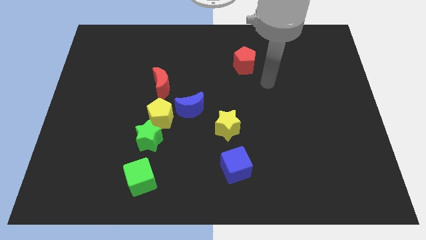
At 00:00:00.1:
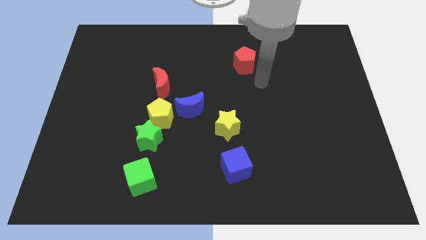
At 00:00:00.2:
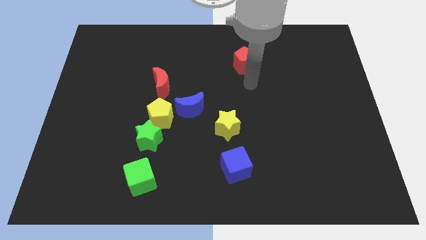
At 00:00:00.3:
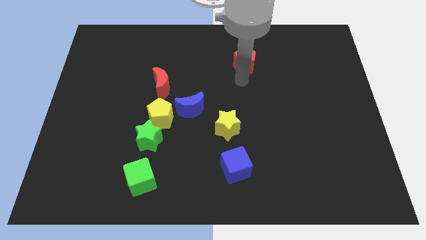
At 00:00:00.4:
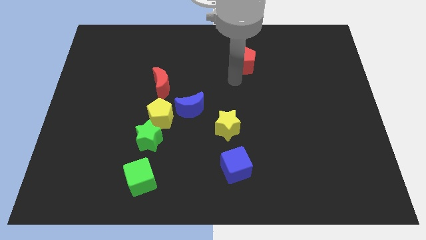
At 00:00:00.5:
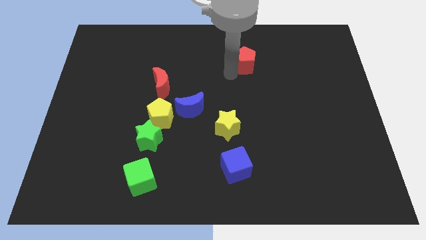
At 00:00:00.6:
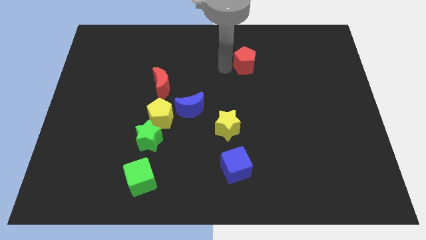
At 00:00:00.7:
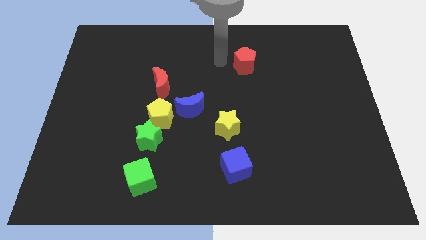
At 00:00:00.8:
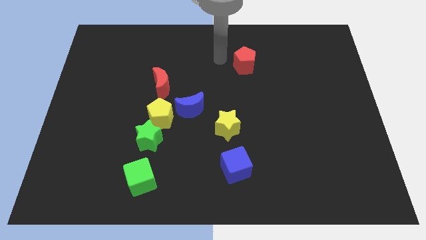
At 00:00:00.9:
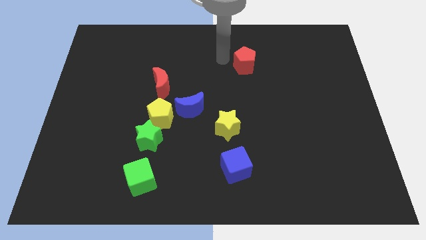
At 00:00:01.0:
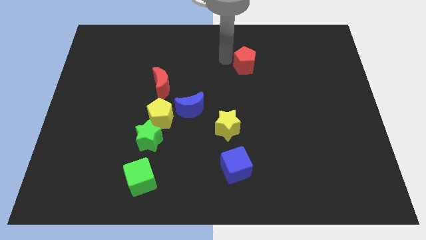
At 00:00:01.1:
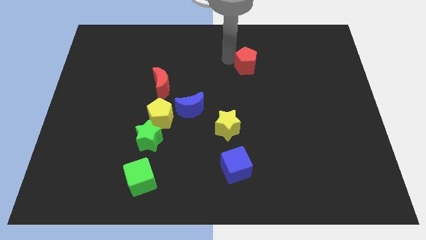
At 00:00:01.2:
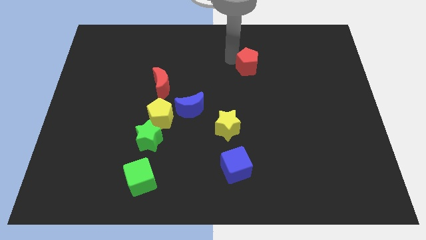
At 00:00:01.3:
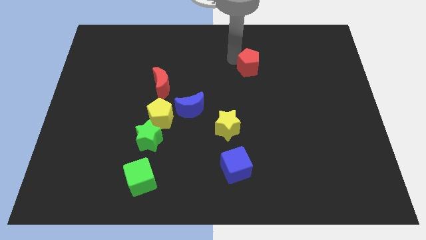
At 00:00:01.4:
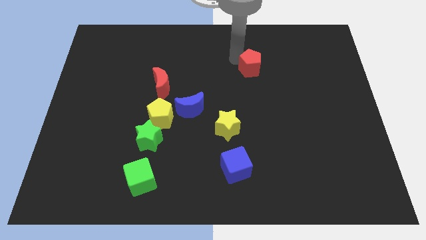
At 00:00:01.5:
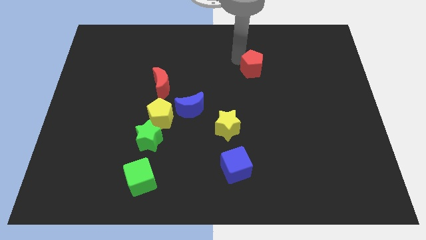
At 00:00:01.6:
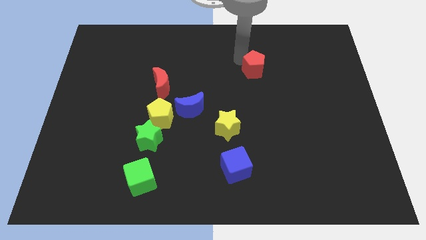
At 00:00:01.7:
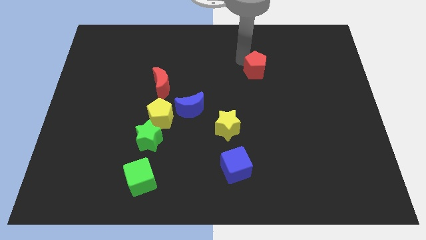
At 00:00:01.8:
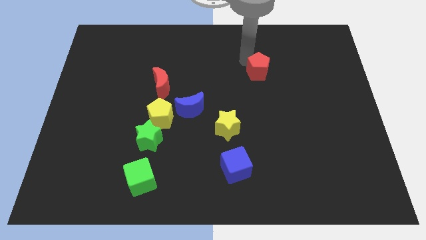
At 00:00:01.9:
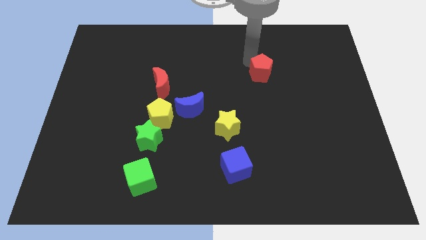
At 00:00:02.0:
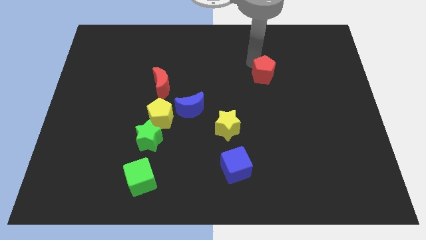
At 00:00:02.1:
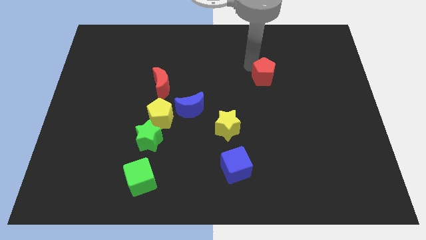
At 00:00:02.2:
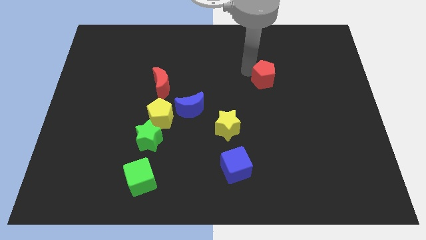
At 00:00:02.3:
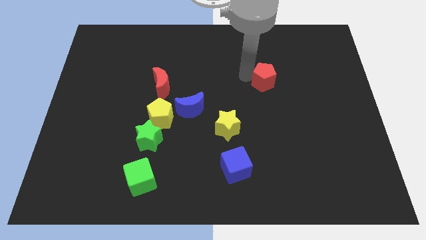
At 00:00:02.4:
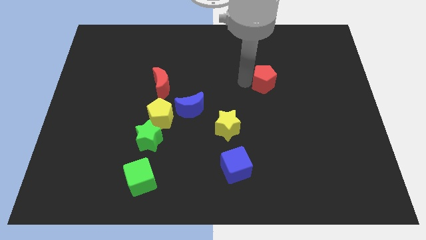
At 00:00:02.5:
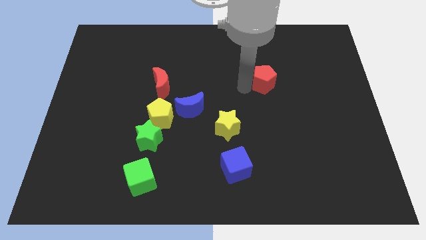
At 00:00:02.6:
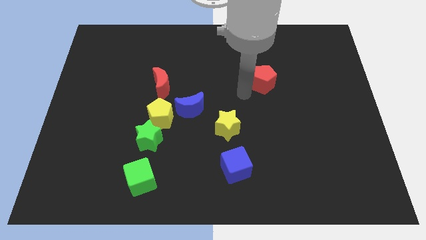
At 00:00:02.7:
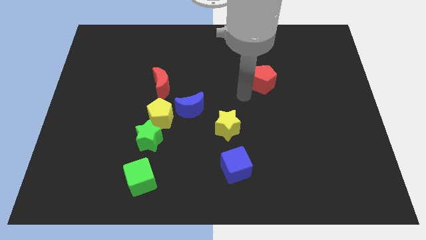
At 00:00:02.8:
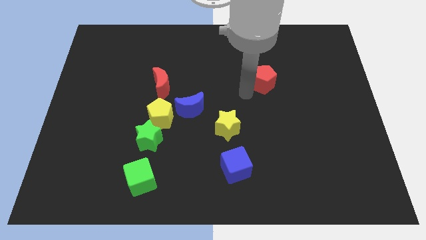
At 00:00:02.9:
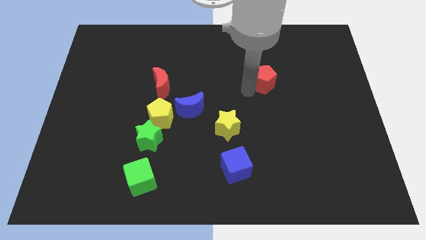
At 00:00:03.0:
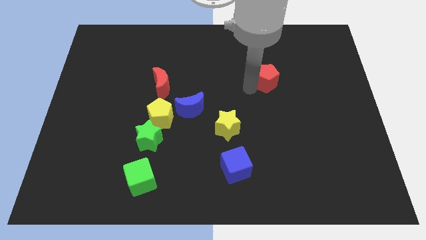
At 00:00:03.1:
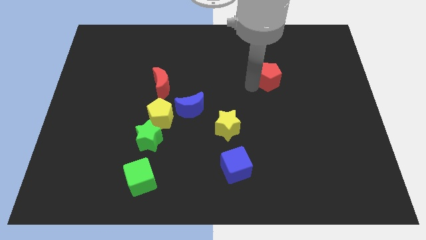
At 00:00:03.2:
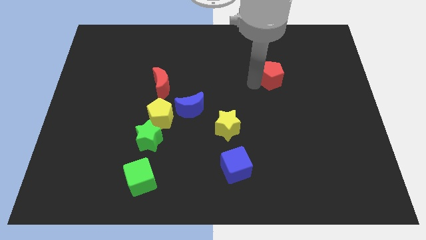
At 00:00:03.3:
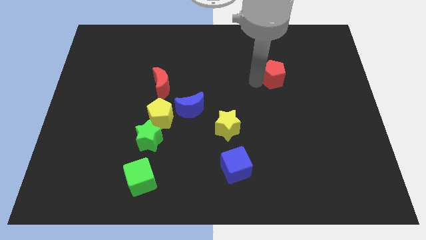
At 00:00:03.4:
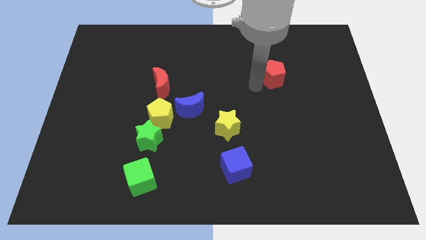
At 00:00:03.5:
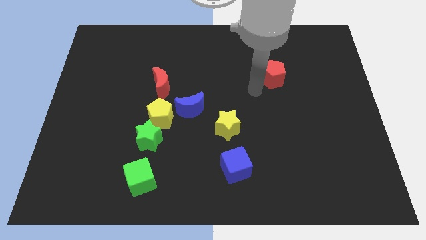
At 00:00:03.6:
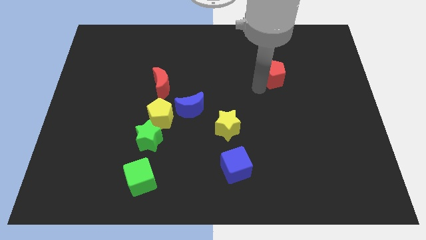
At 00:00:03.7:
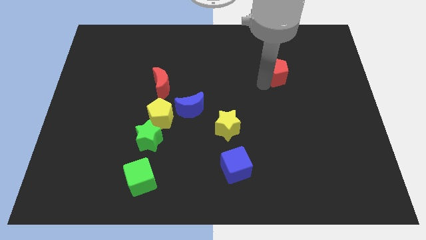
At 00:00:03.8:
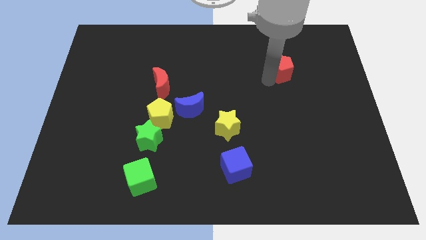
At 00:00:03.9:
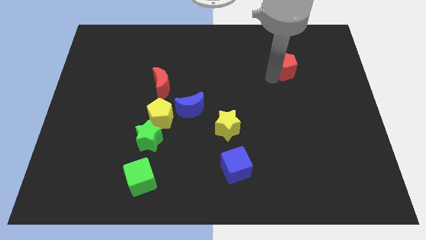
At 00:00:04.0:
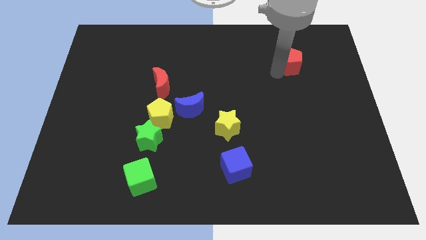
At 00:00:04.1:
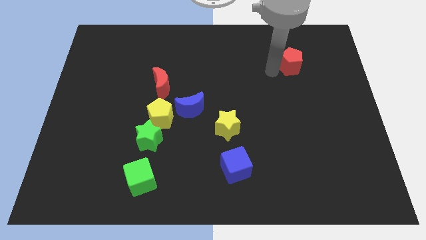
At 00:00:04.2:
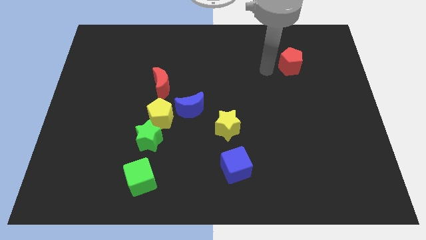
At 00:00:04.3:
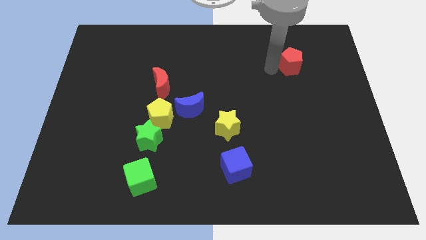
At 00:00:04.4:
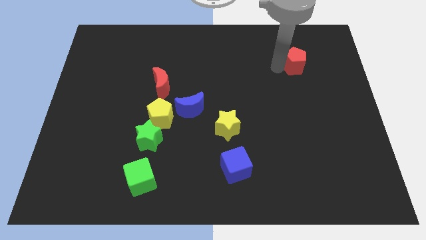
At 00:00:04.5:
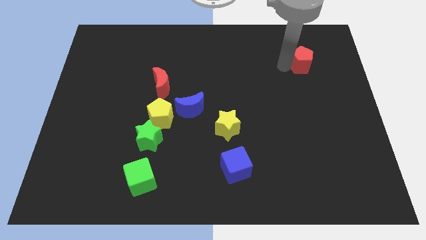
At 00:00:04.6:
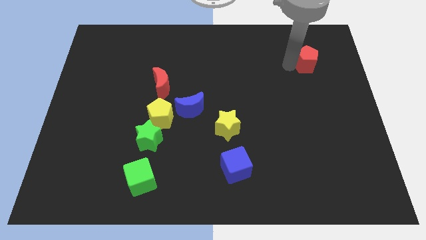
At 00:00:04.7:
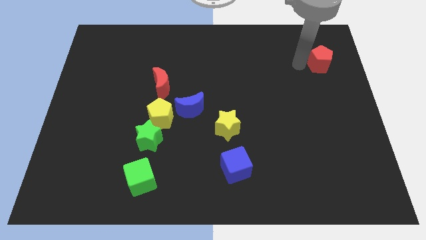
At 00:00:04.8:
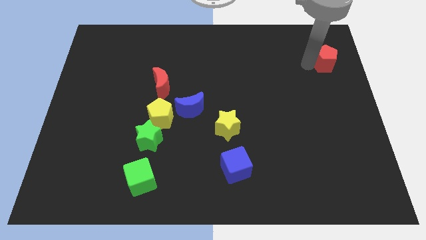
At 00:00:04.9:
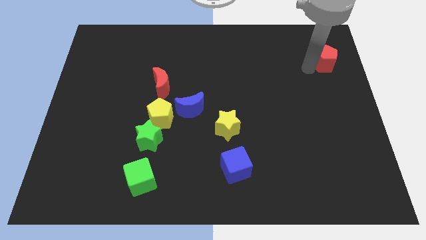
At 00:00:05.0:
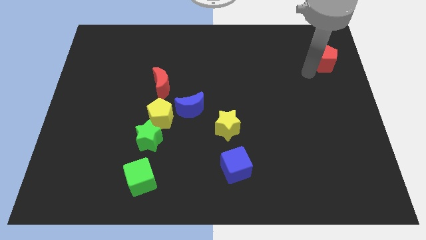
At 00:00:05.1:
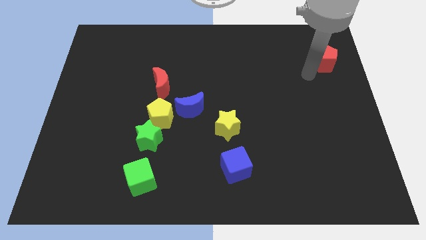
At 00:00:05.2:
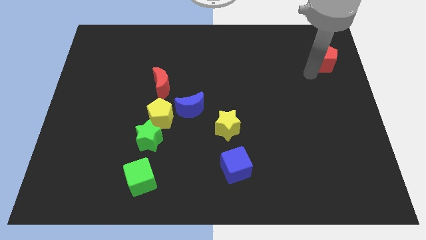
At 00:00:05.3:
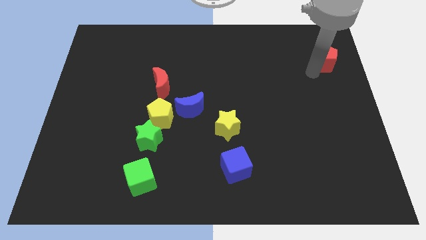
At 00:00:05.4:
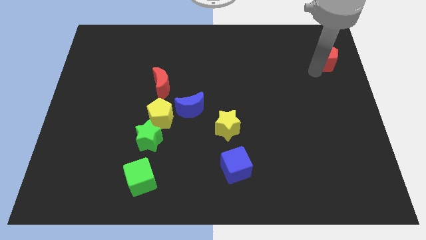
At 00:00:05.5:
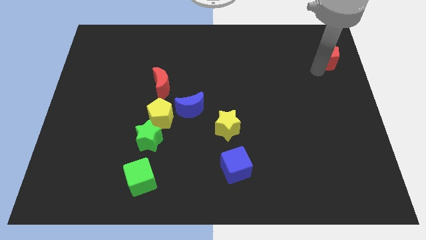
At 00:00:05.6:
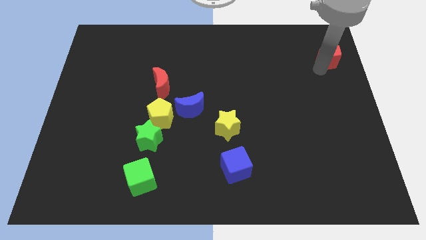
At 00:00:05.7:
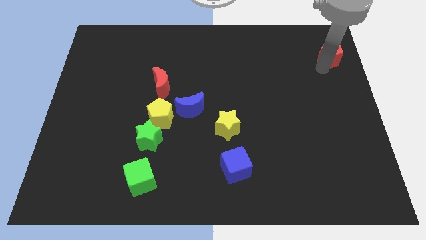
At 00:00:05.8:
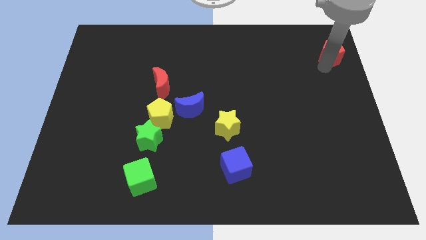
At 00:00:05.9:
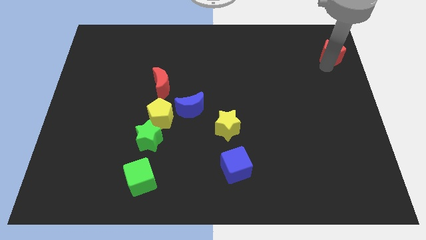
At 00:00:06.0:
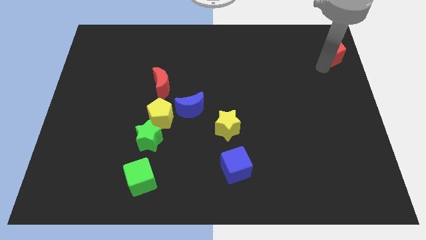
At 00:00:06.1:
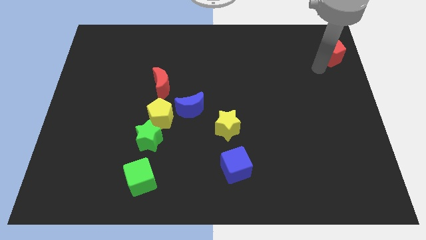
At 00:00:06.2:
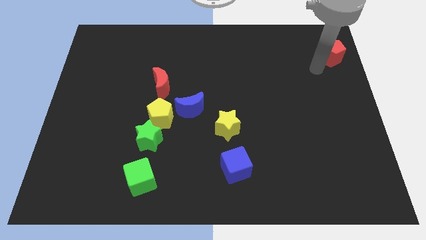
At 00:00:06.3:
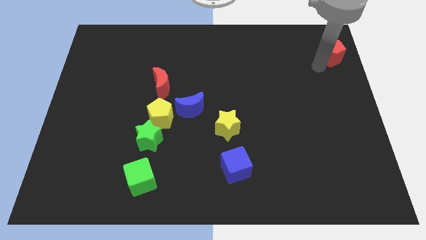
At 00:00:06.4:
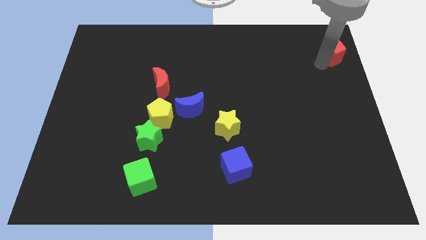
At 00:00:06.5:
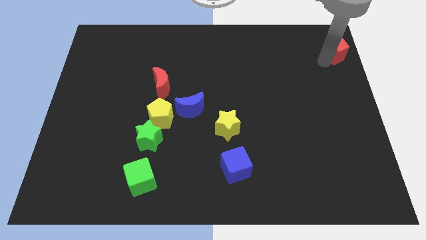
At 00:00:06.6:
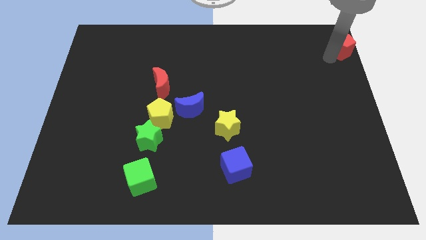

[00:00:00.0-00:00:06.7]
slide the red pentagon to the top right of the board

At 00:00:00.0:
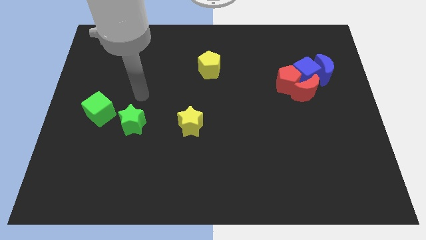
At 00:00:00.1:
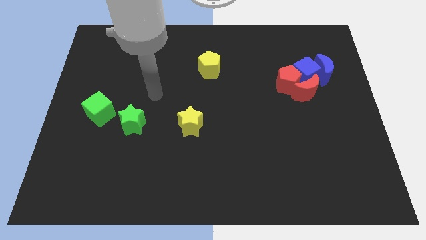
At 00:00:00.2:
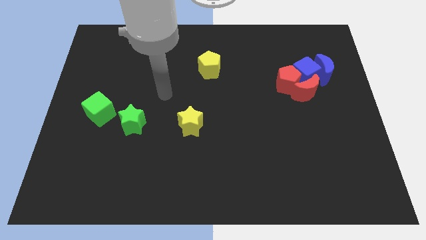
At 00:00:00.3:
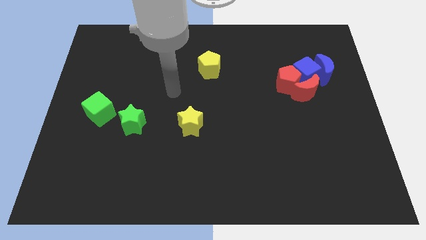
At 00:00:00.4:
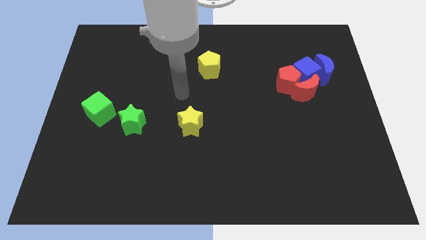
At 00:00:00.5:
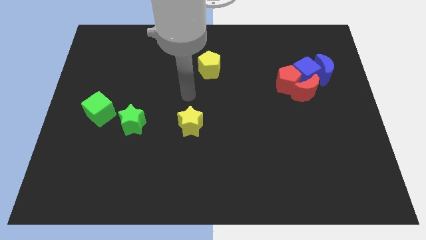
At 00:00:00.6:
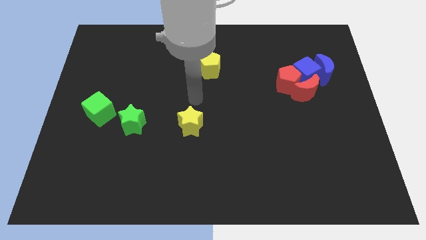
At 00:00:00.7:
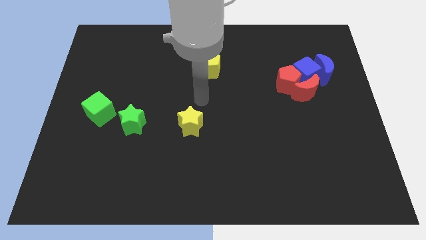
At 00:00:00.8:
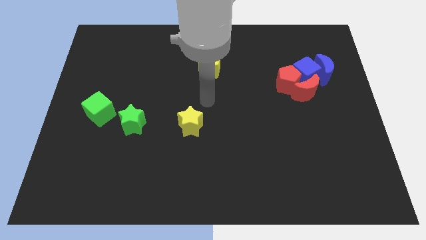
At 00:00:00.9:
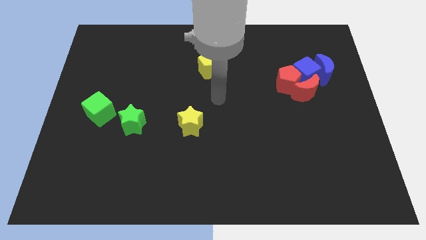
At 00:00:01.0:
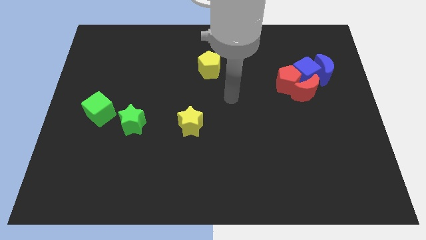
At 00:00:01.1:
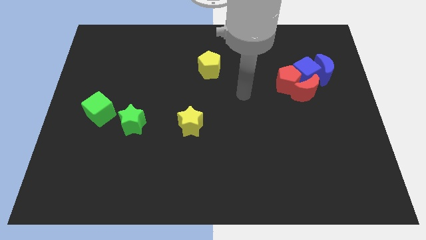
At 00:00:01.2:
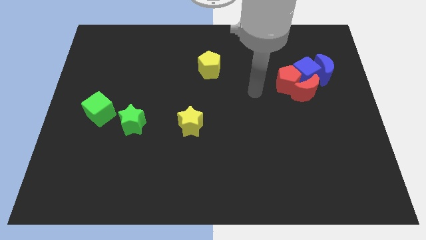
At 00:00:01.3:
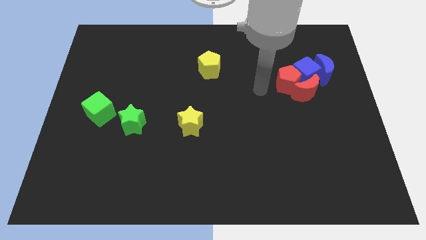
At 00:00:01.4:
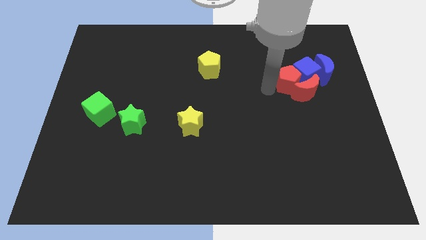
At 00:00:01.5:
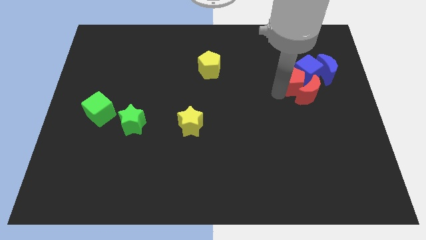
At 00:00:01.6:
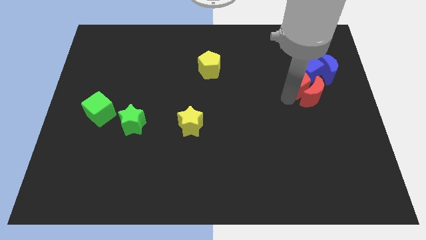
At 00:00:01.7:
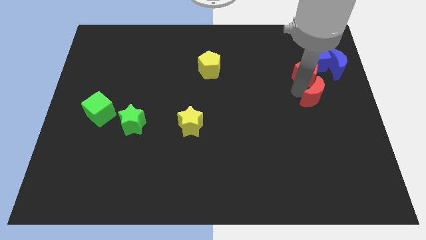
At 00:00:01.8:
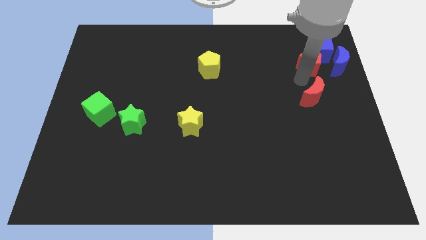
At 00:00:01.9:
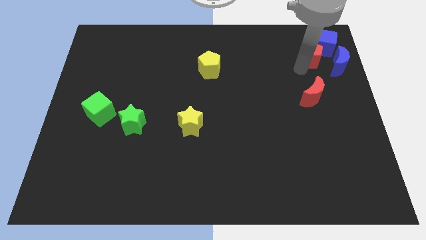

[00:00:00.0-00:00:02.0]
move the blue cube to the top right corner
